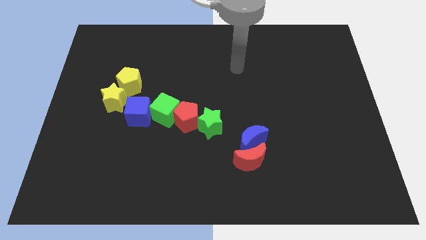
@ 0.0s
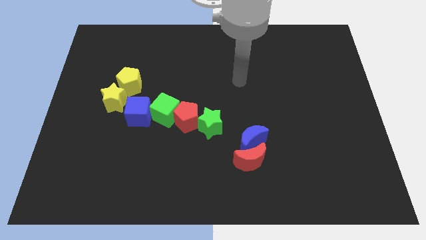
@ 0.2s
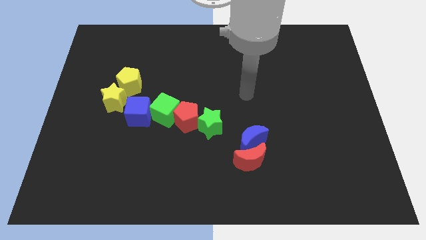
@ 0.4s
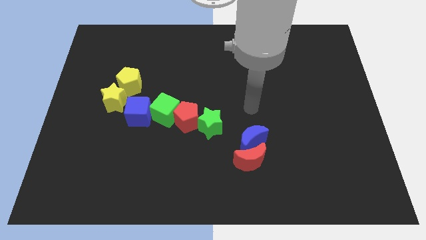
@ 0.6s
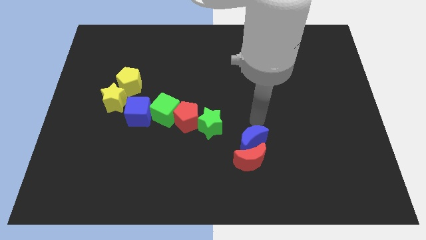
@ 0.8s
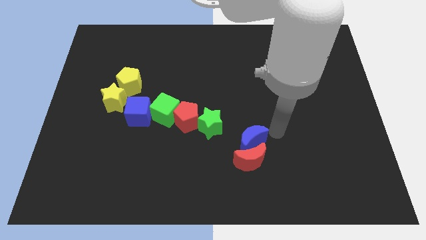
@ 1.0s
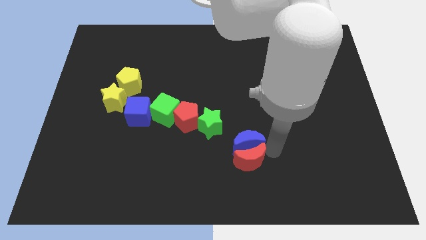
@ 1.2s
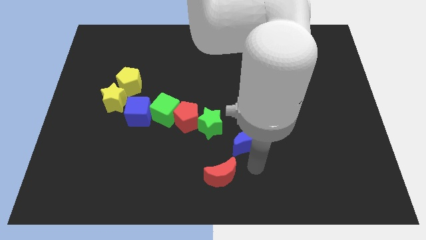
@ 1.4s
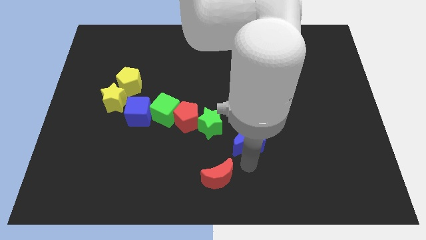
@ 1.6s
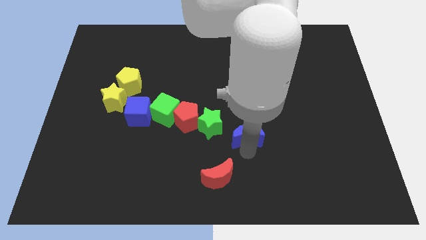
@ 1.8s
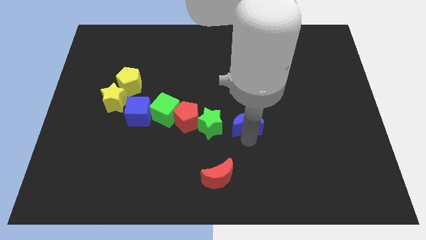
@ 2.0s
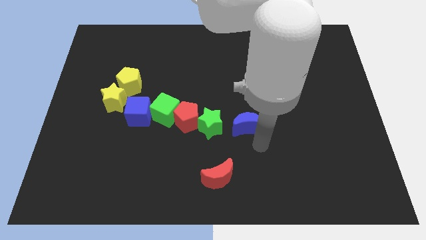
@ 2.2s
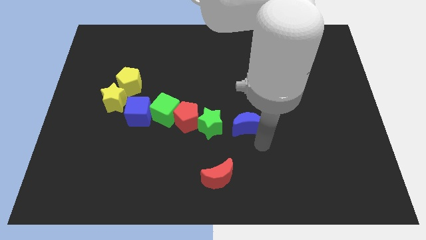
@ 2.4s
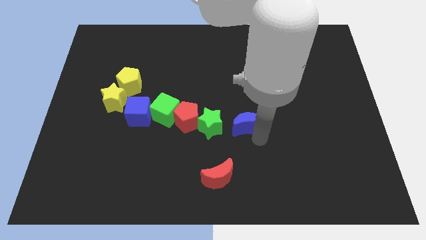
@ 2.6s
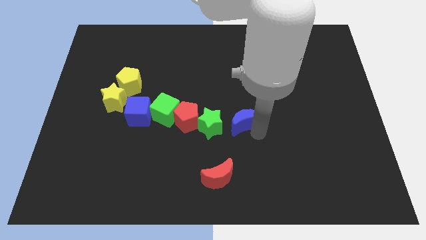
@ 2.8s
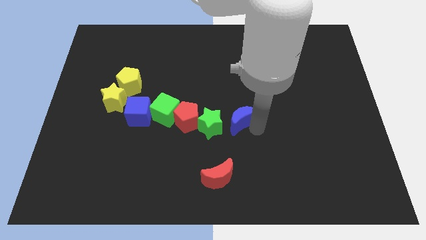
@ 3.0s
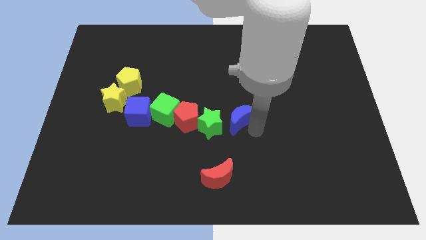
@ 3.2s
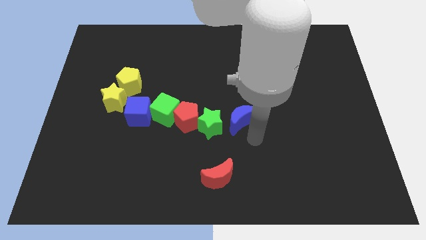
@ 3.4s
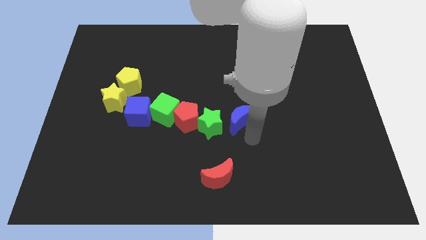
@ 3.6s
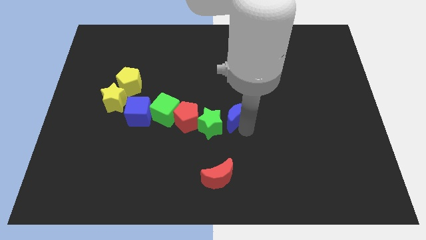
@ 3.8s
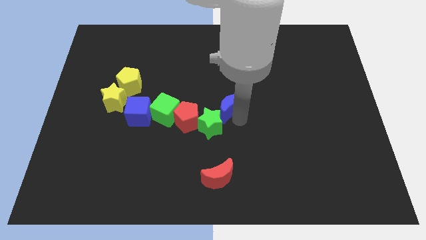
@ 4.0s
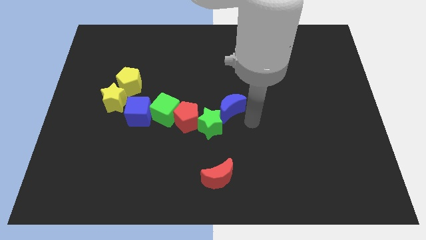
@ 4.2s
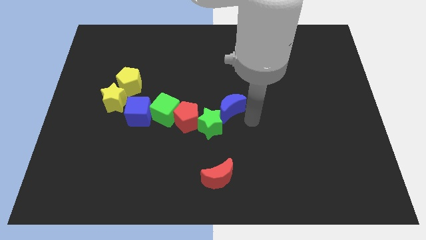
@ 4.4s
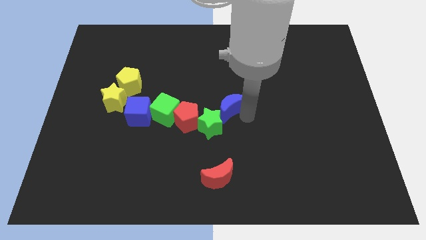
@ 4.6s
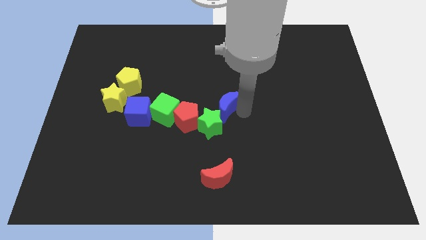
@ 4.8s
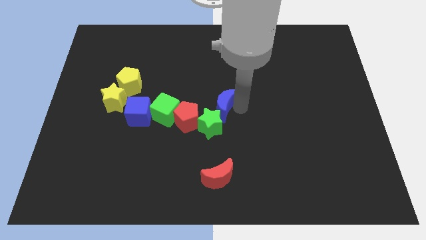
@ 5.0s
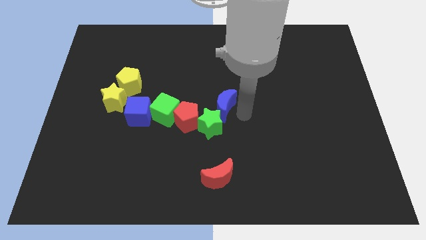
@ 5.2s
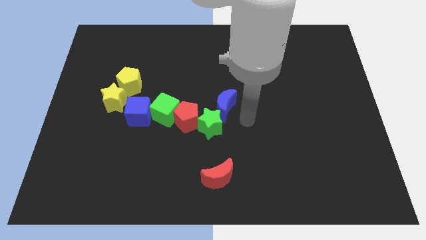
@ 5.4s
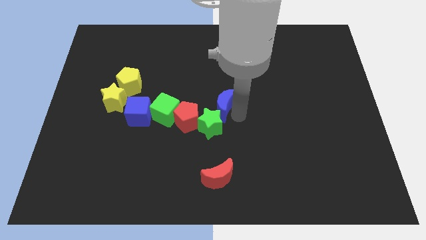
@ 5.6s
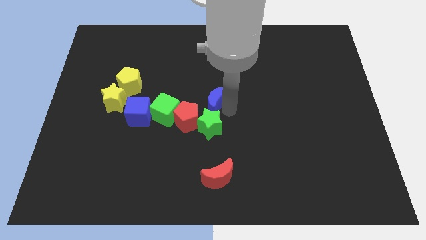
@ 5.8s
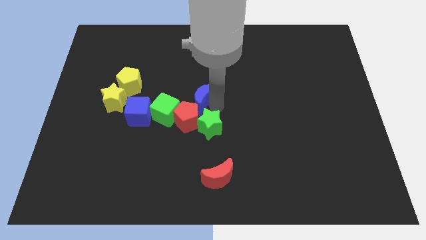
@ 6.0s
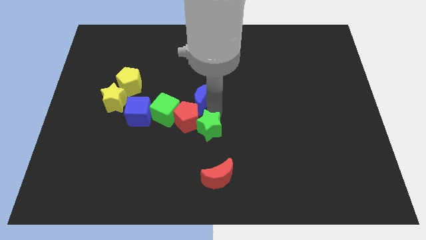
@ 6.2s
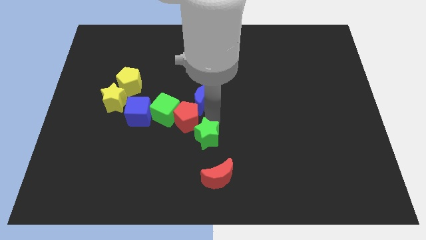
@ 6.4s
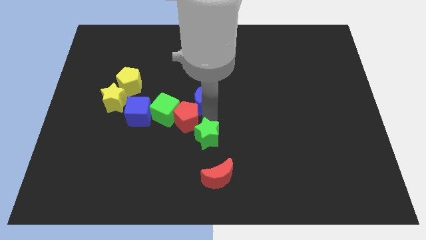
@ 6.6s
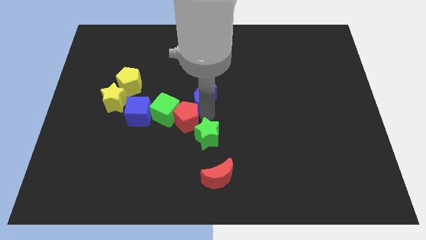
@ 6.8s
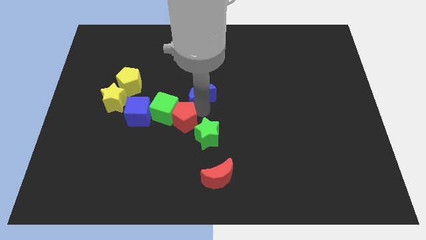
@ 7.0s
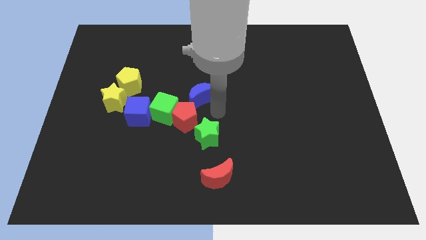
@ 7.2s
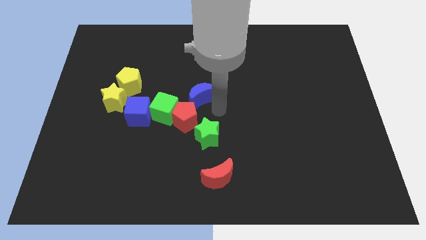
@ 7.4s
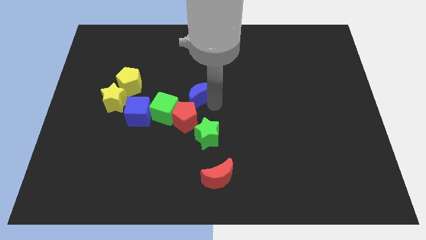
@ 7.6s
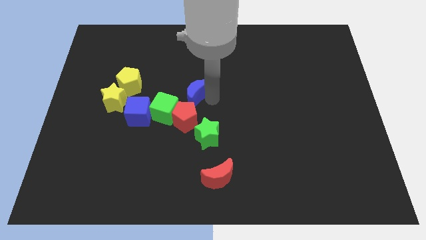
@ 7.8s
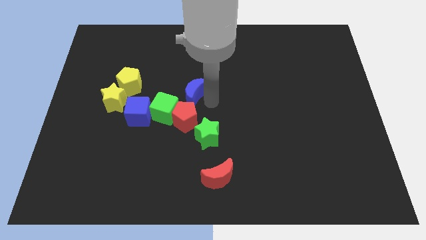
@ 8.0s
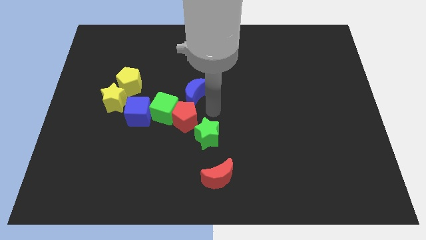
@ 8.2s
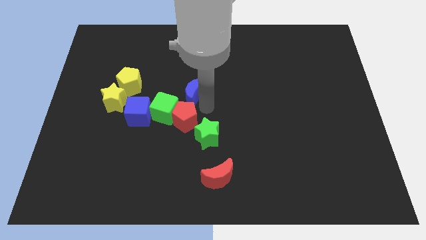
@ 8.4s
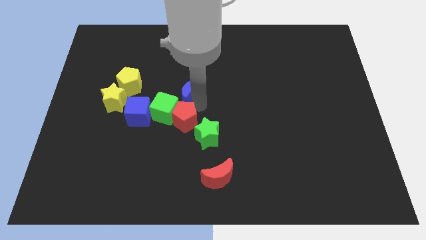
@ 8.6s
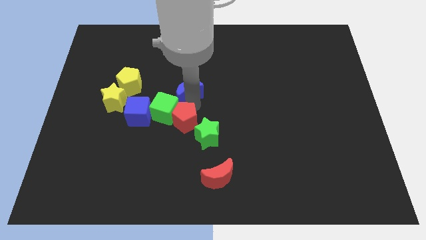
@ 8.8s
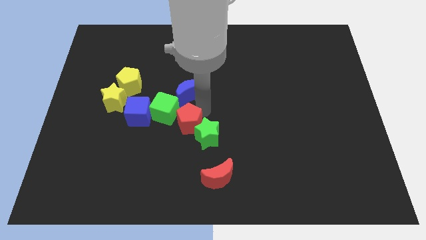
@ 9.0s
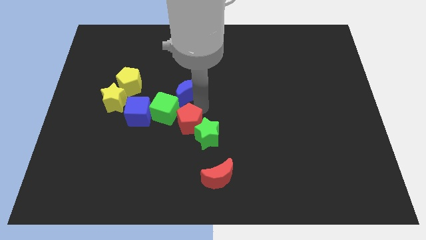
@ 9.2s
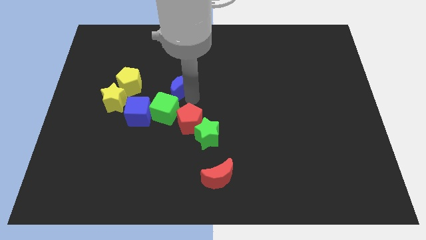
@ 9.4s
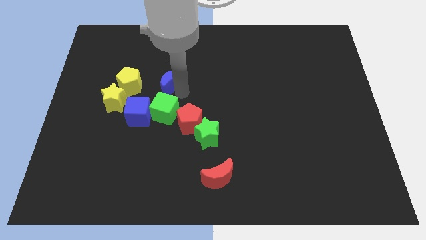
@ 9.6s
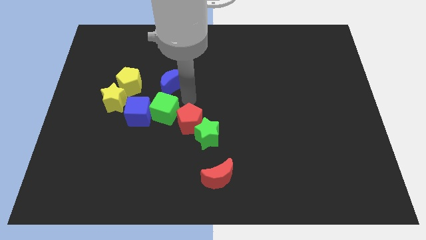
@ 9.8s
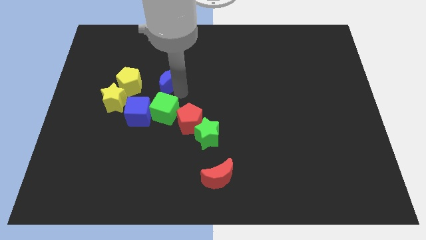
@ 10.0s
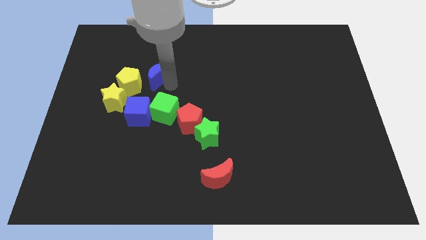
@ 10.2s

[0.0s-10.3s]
push the blue moon to the top right side of the yellow pentagon

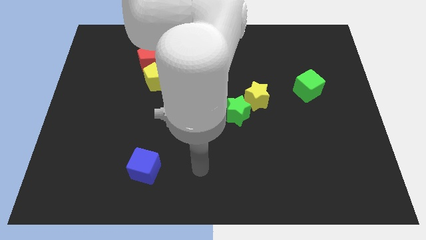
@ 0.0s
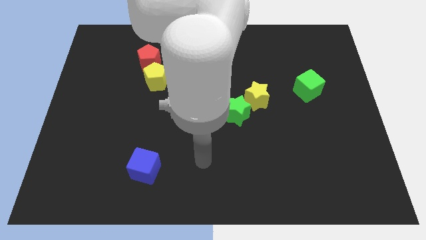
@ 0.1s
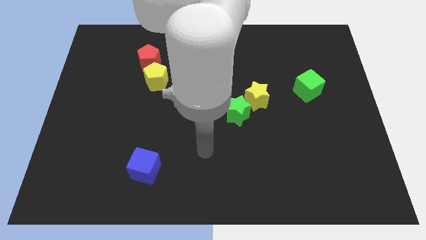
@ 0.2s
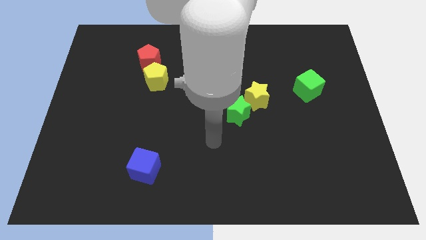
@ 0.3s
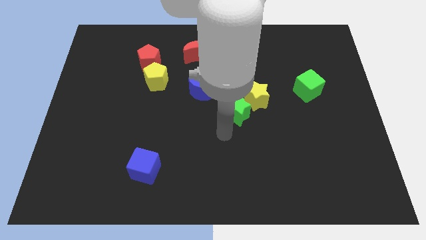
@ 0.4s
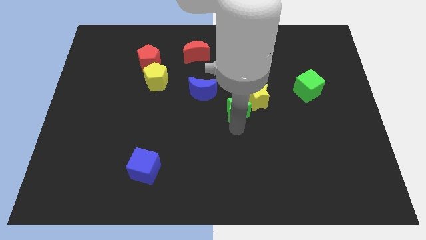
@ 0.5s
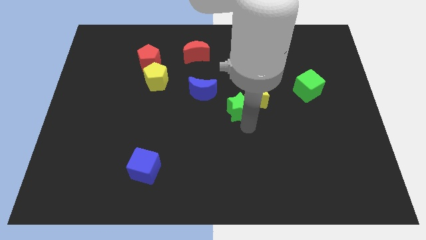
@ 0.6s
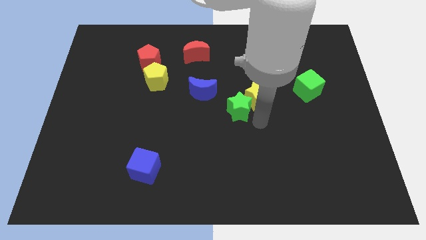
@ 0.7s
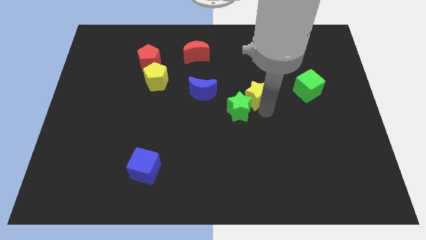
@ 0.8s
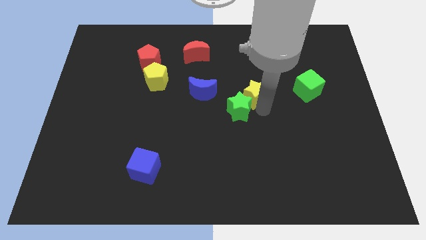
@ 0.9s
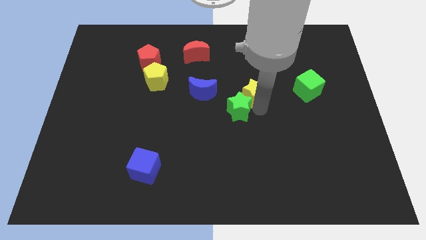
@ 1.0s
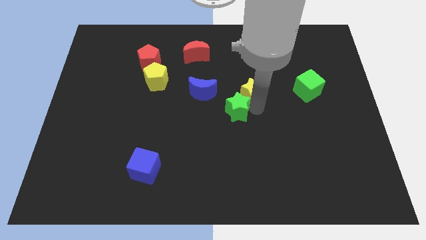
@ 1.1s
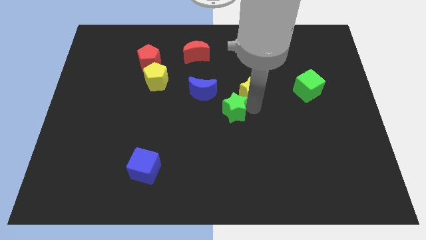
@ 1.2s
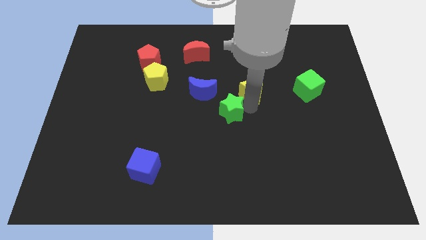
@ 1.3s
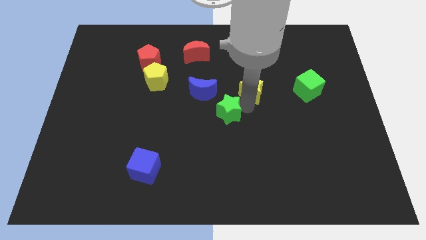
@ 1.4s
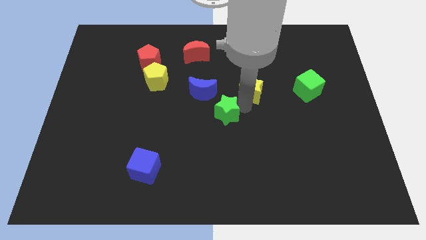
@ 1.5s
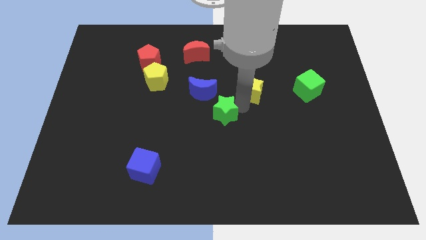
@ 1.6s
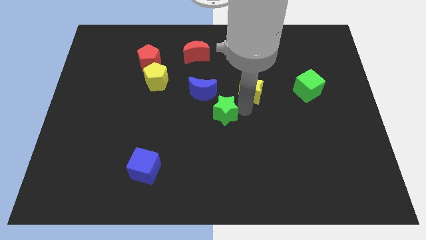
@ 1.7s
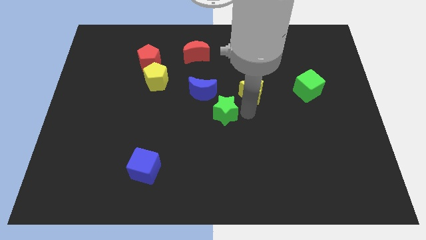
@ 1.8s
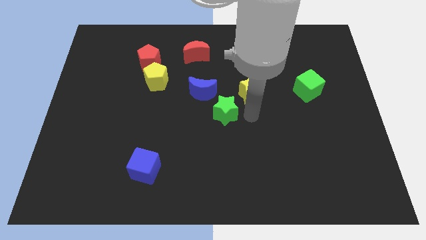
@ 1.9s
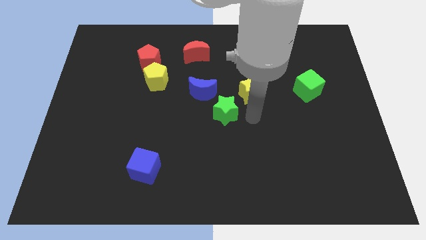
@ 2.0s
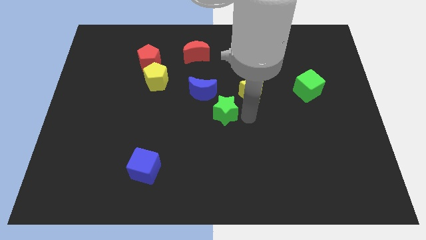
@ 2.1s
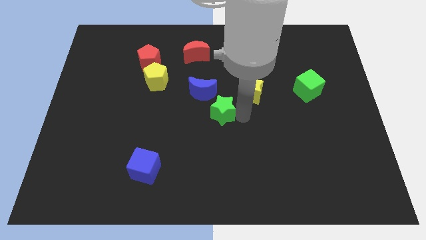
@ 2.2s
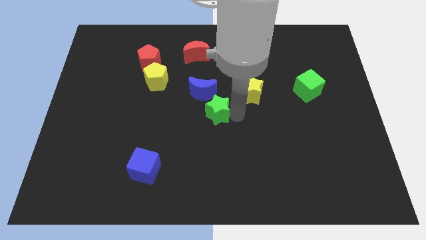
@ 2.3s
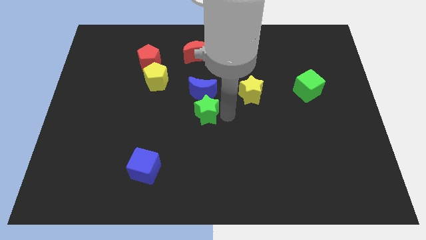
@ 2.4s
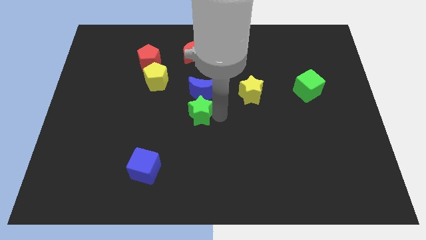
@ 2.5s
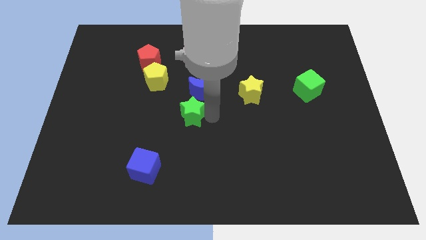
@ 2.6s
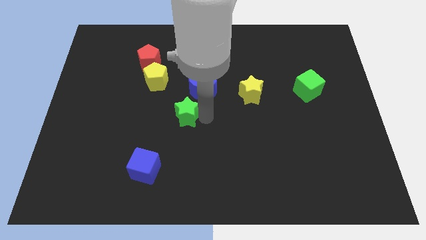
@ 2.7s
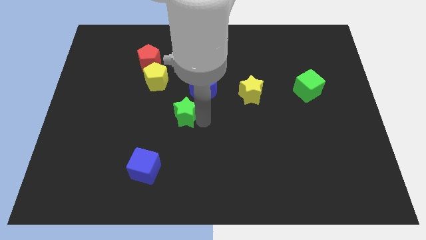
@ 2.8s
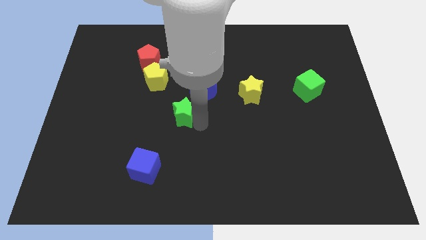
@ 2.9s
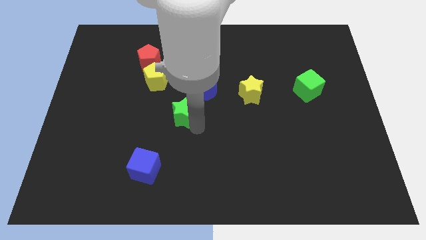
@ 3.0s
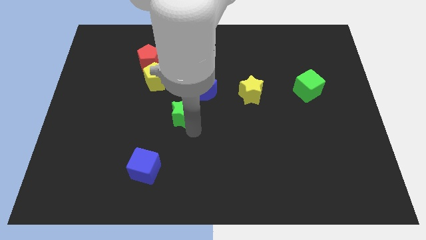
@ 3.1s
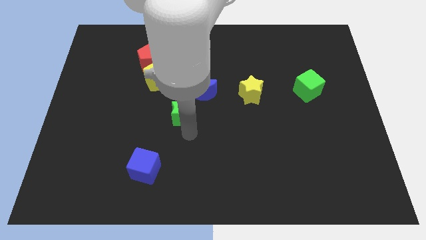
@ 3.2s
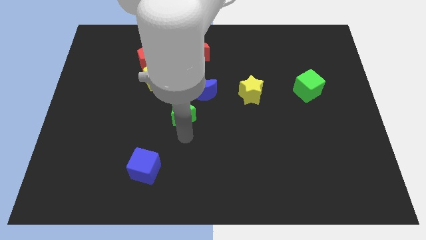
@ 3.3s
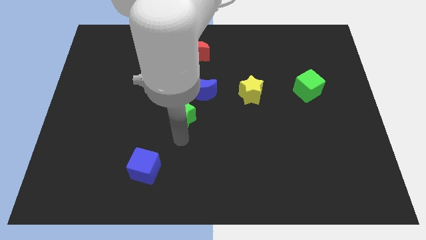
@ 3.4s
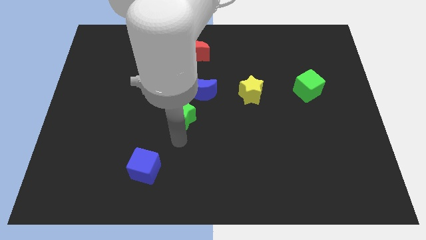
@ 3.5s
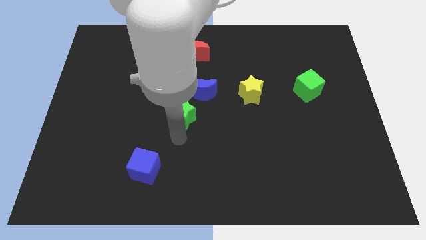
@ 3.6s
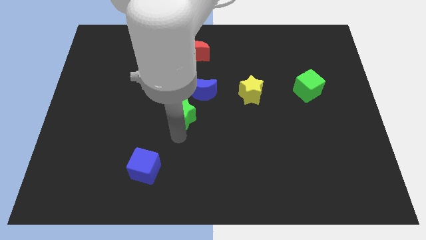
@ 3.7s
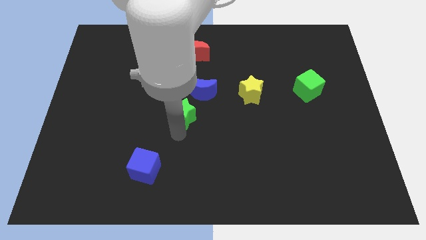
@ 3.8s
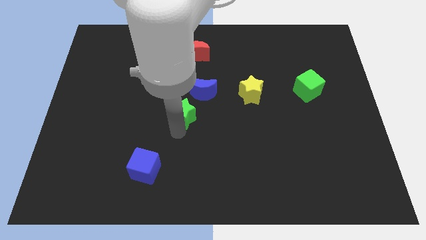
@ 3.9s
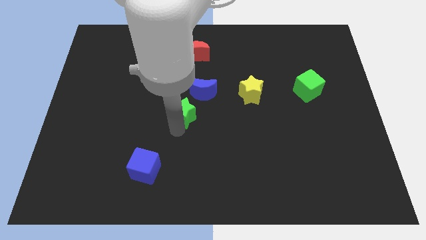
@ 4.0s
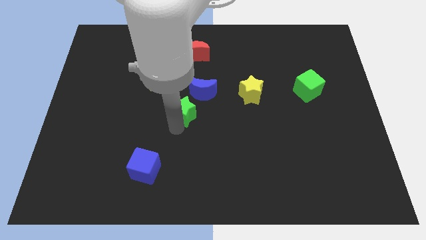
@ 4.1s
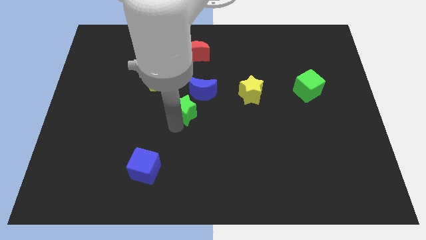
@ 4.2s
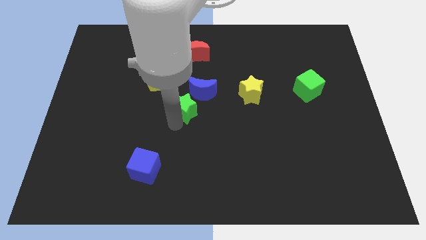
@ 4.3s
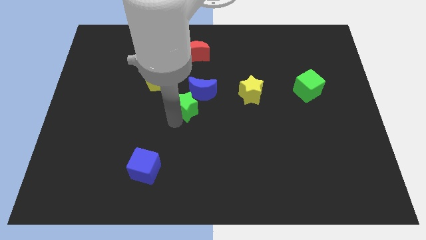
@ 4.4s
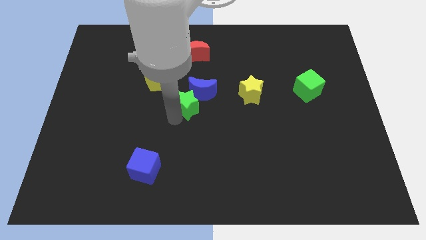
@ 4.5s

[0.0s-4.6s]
push the green star to the left side of the blue moon
